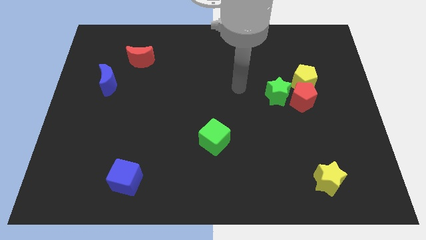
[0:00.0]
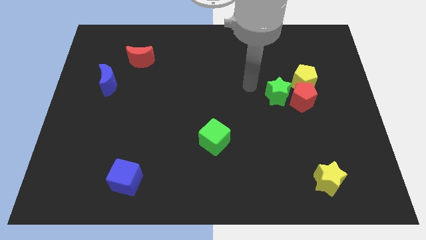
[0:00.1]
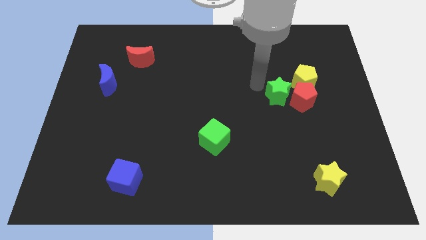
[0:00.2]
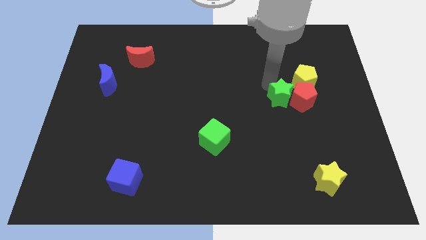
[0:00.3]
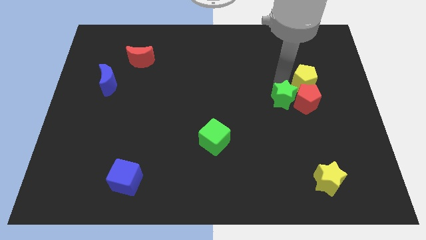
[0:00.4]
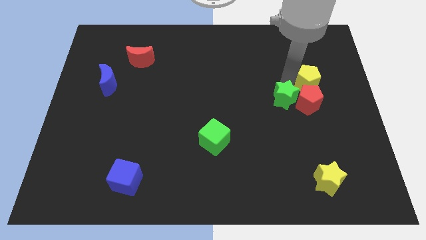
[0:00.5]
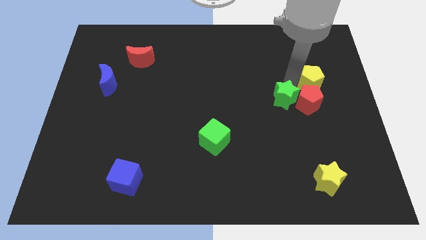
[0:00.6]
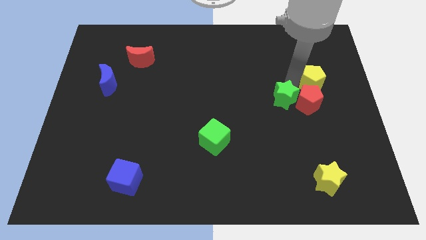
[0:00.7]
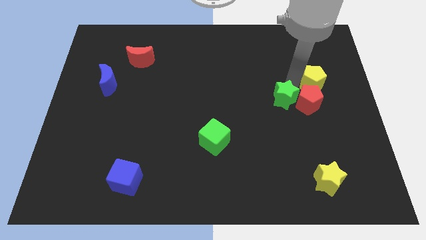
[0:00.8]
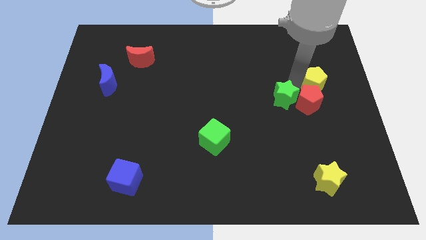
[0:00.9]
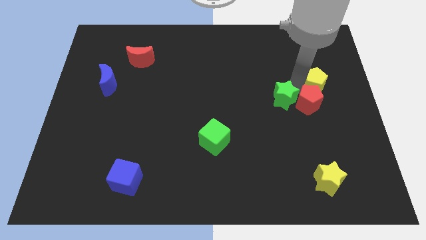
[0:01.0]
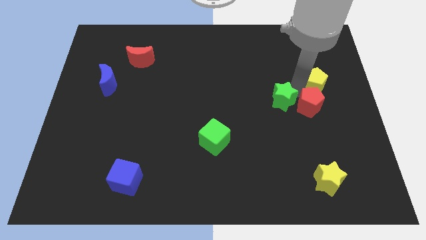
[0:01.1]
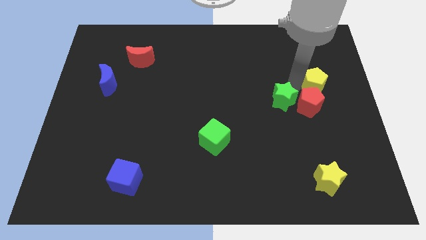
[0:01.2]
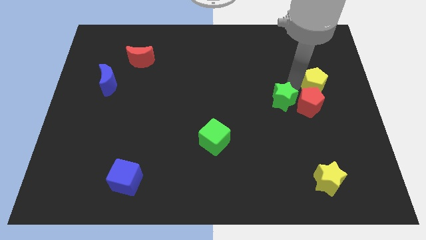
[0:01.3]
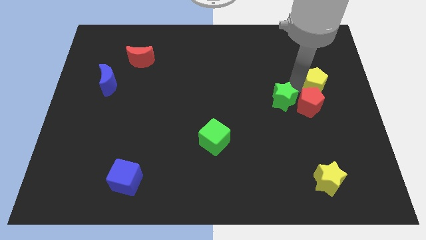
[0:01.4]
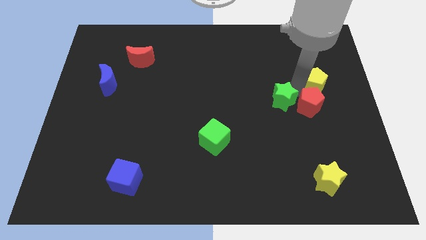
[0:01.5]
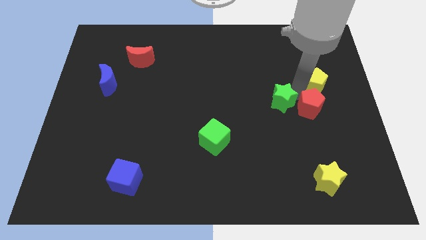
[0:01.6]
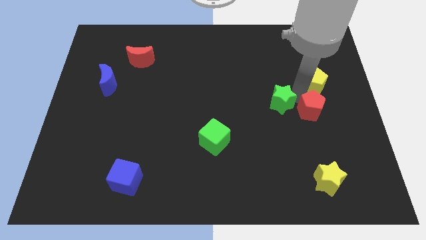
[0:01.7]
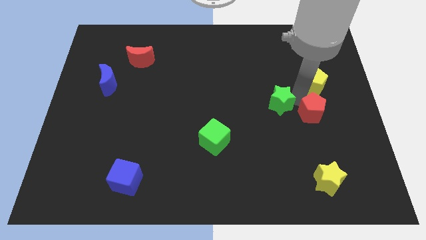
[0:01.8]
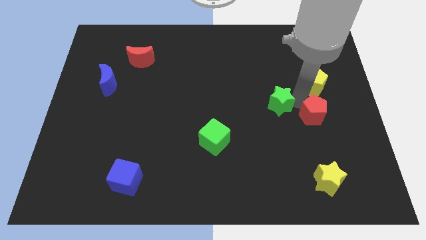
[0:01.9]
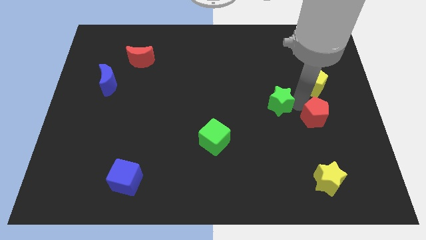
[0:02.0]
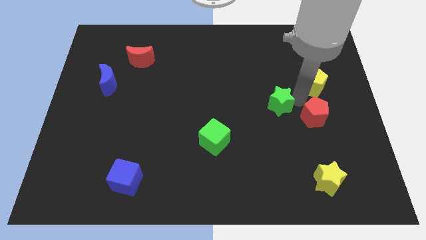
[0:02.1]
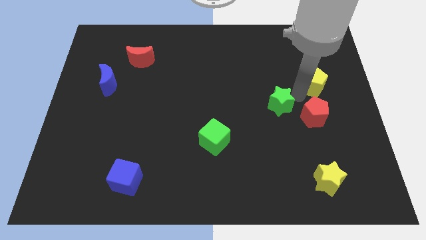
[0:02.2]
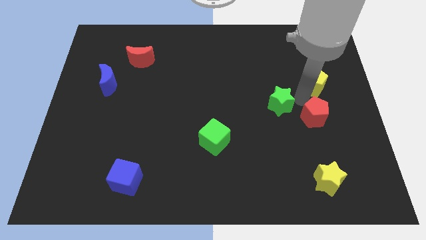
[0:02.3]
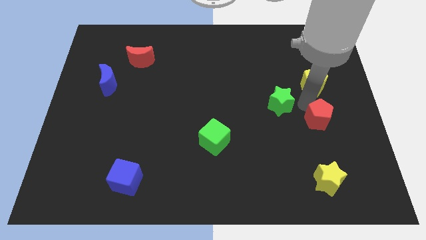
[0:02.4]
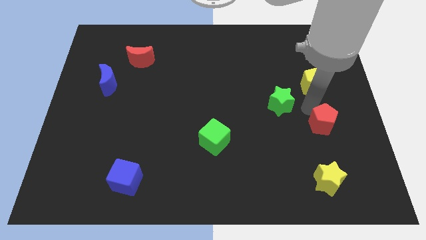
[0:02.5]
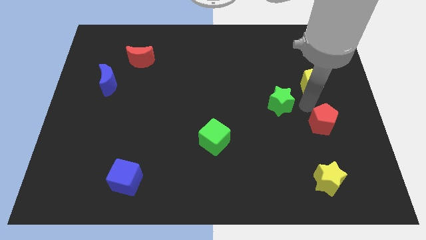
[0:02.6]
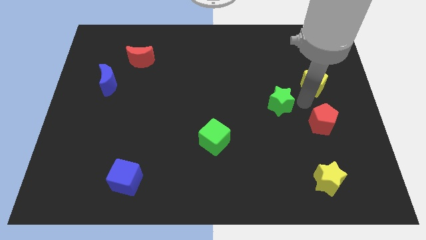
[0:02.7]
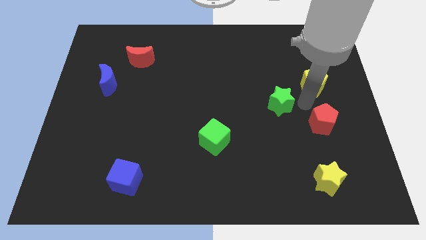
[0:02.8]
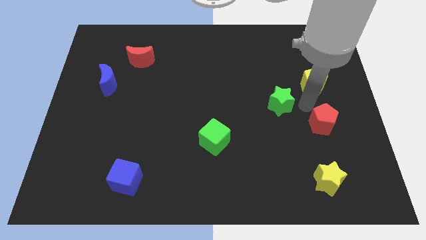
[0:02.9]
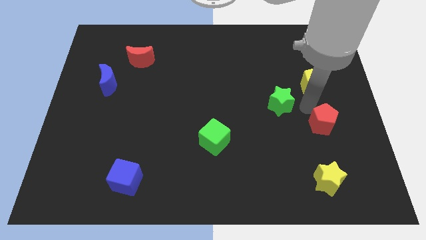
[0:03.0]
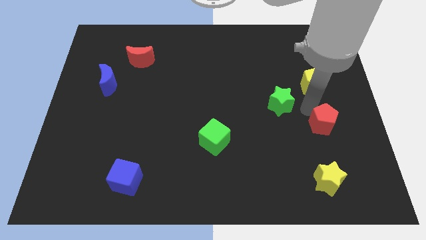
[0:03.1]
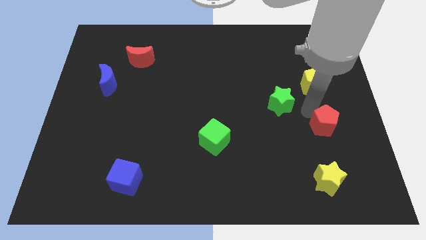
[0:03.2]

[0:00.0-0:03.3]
move the red pentagon away from the yellow pentagon and green star

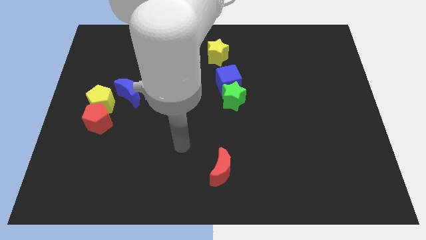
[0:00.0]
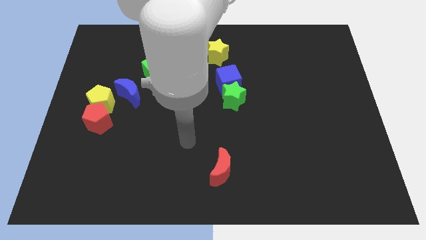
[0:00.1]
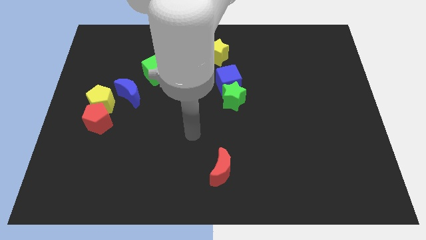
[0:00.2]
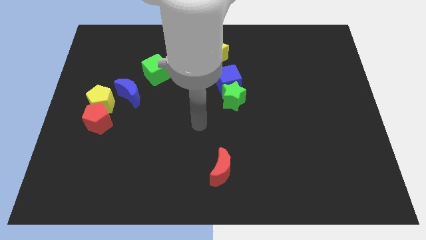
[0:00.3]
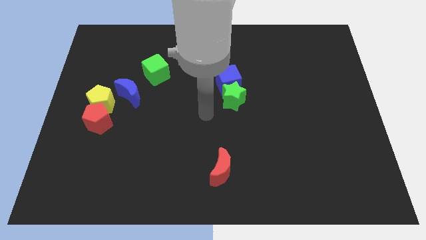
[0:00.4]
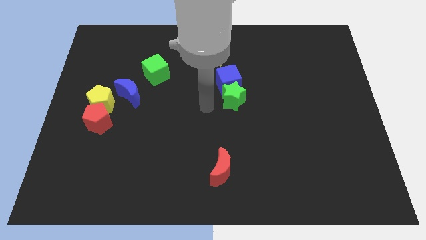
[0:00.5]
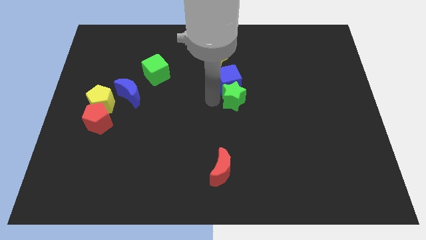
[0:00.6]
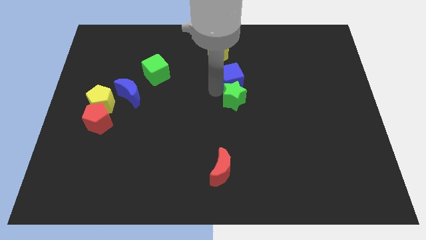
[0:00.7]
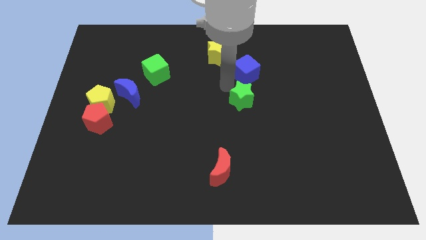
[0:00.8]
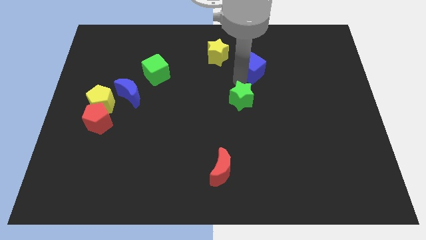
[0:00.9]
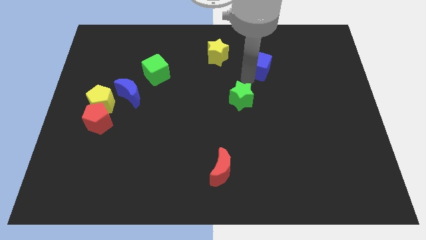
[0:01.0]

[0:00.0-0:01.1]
move the green star away from the blue cube

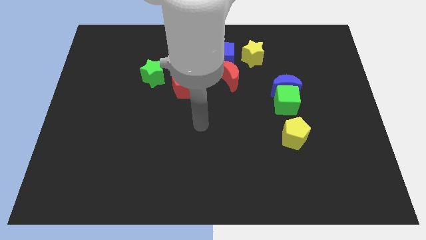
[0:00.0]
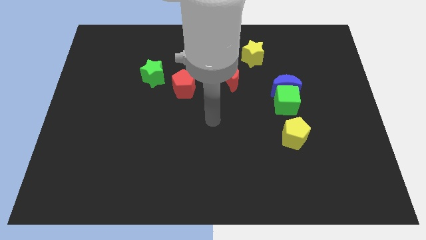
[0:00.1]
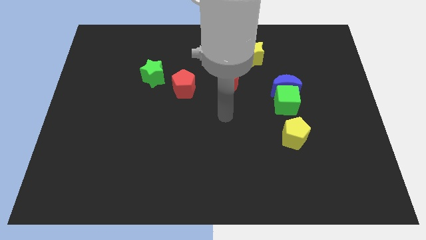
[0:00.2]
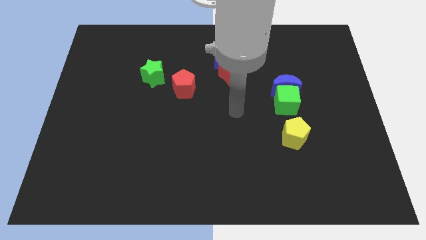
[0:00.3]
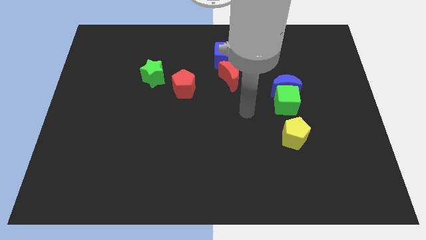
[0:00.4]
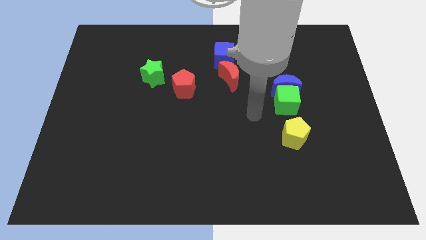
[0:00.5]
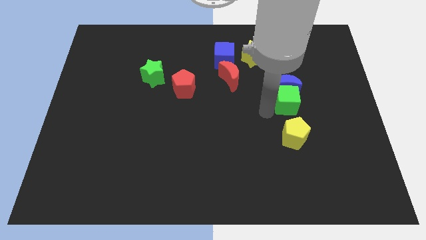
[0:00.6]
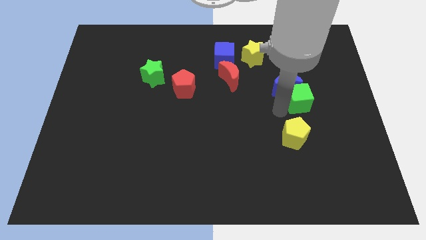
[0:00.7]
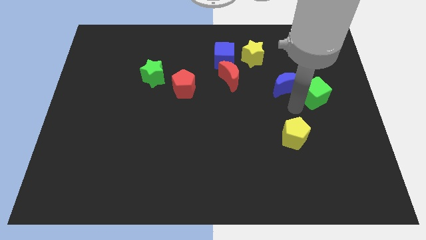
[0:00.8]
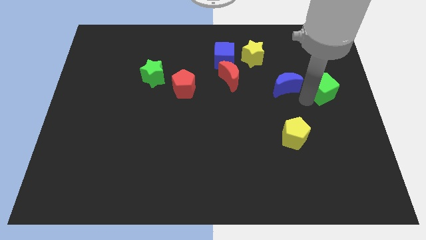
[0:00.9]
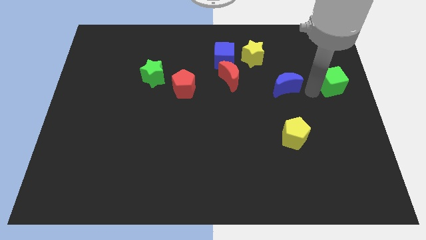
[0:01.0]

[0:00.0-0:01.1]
pull the blue moon apart from the green cube

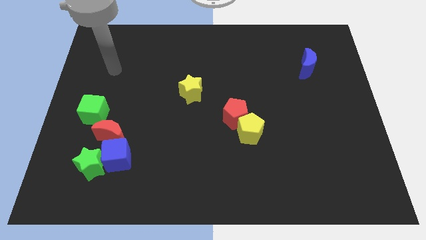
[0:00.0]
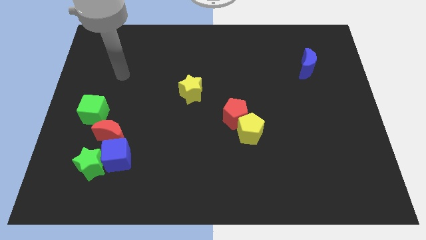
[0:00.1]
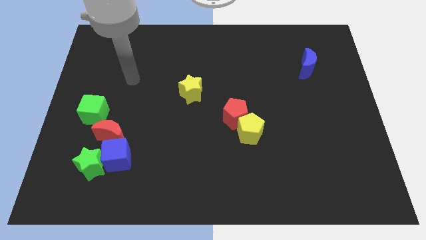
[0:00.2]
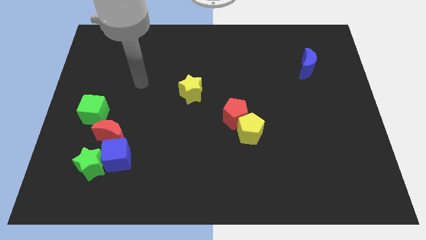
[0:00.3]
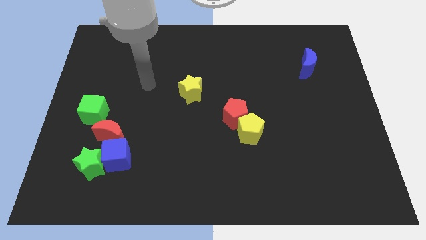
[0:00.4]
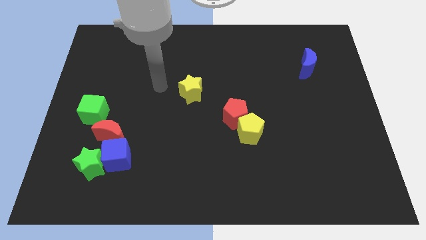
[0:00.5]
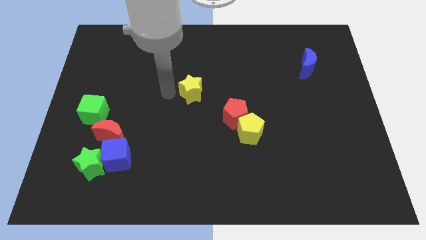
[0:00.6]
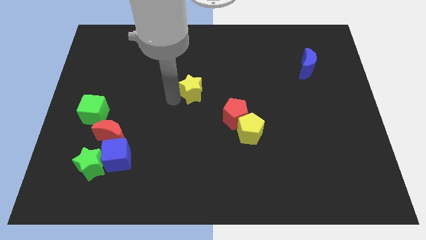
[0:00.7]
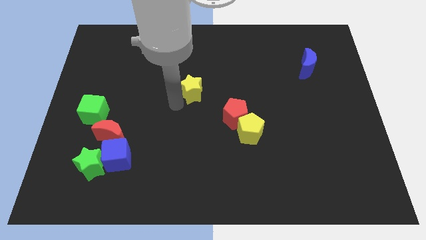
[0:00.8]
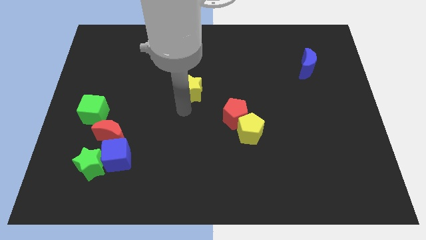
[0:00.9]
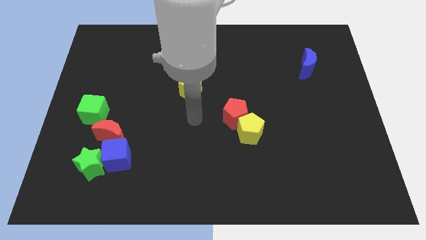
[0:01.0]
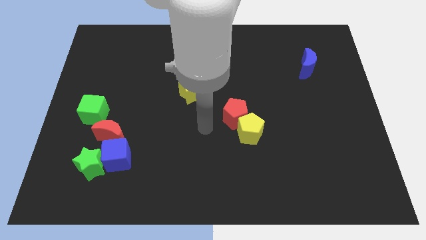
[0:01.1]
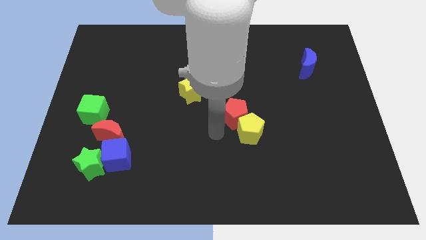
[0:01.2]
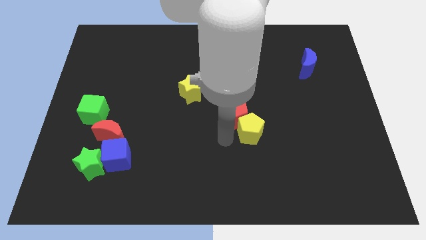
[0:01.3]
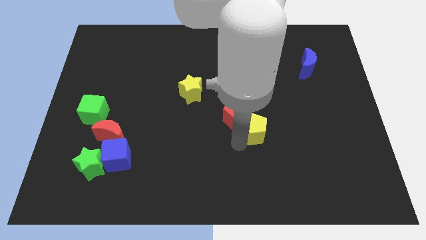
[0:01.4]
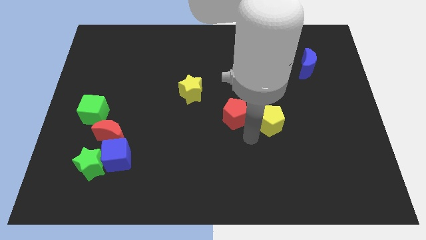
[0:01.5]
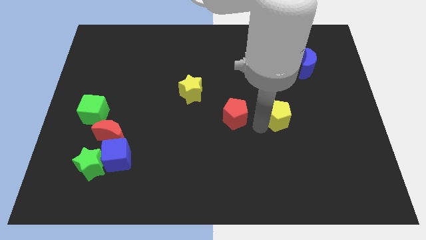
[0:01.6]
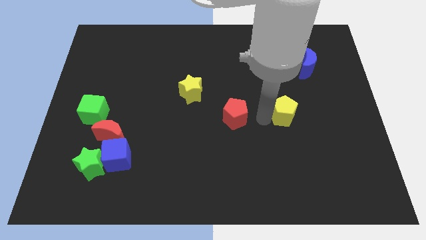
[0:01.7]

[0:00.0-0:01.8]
move the red pentagon away from the yellow pentagon

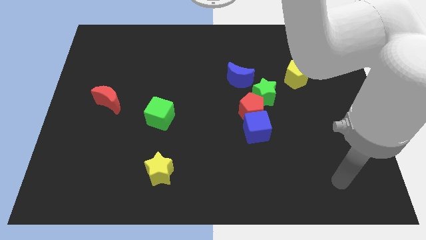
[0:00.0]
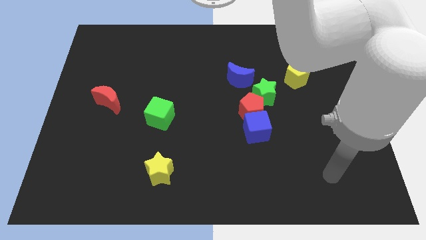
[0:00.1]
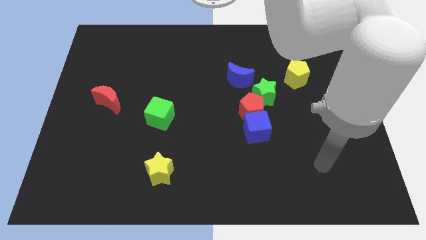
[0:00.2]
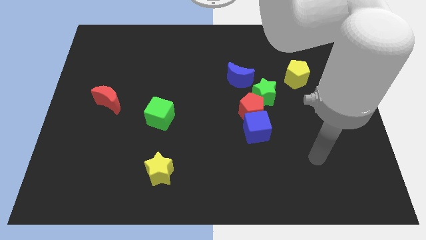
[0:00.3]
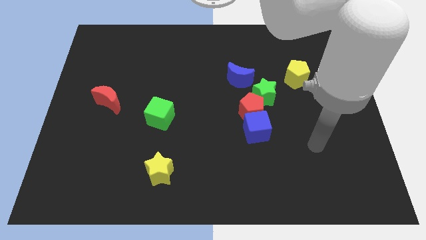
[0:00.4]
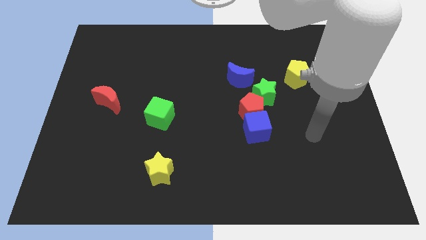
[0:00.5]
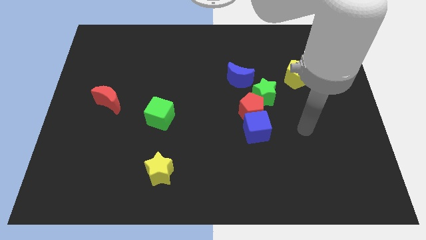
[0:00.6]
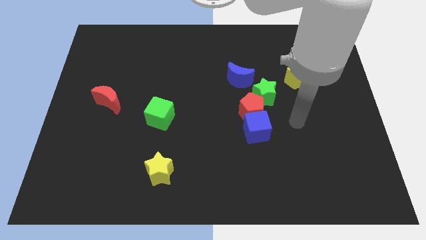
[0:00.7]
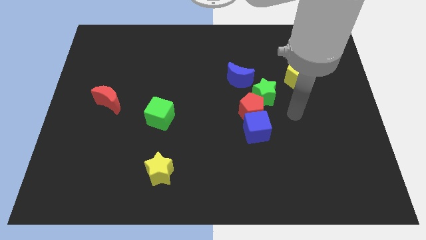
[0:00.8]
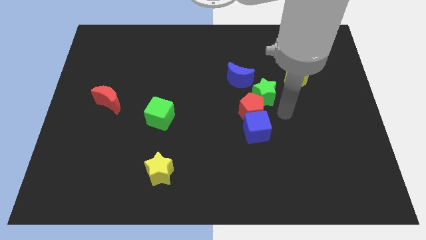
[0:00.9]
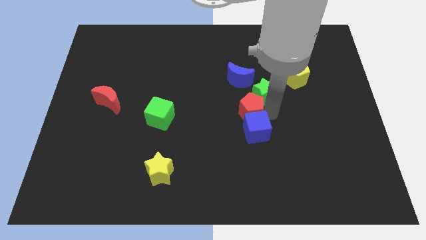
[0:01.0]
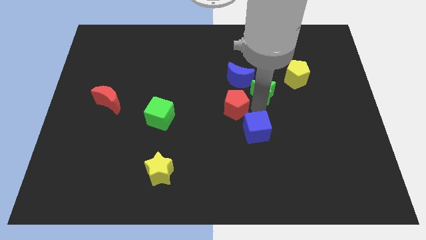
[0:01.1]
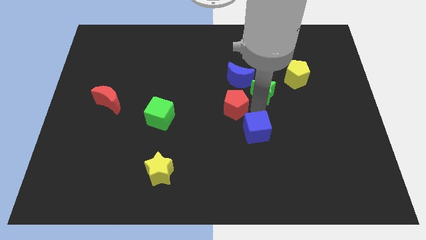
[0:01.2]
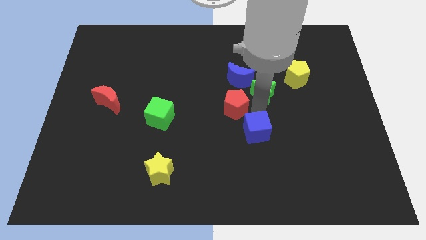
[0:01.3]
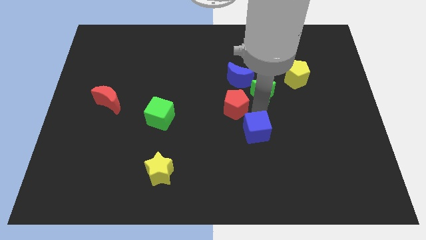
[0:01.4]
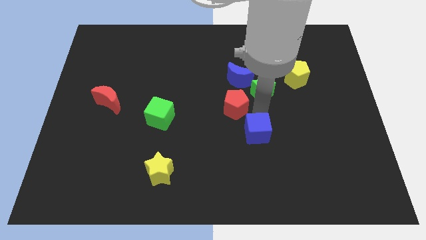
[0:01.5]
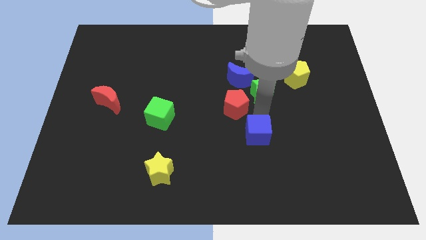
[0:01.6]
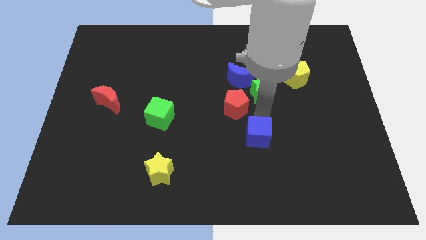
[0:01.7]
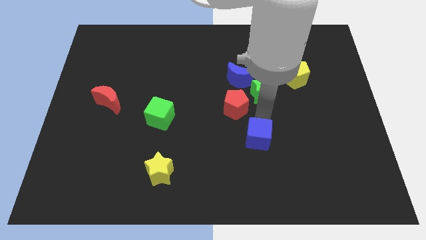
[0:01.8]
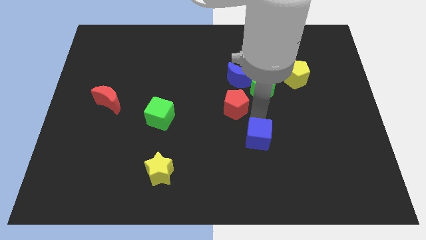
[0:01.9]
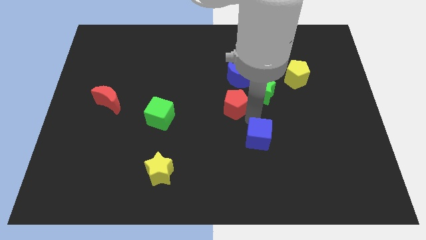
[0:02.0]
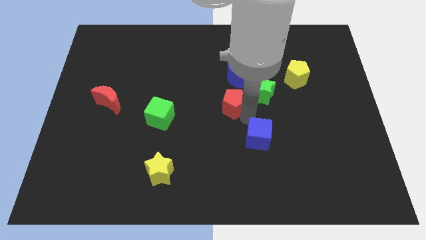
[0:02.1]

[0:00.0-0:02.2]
move the blue cube away from the red pentagon
